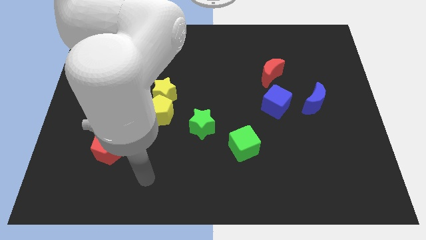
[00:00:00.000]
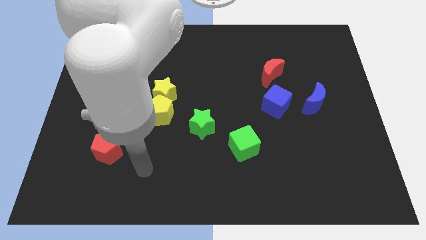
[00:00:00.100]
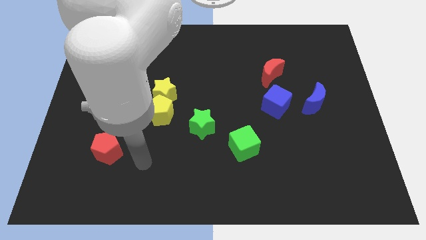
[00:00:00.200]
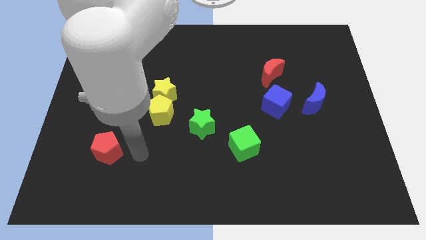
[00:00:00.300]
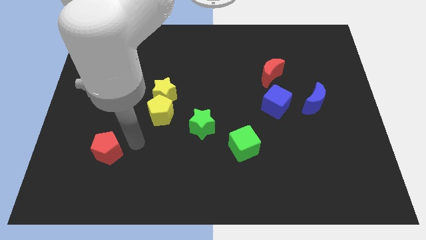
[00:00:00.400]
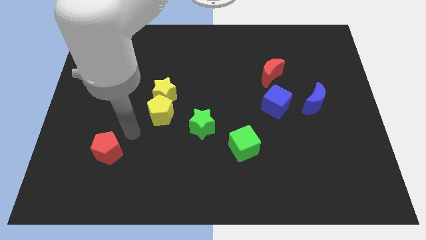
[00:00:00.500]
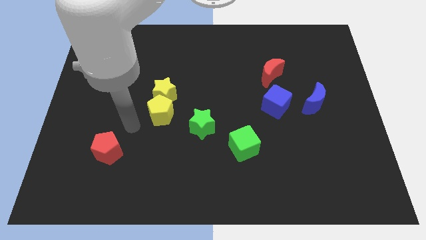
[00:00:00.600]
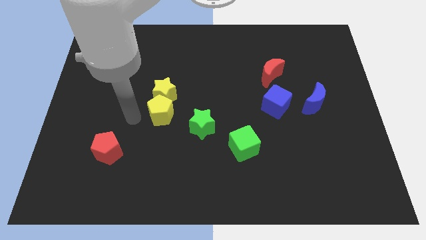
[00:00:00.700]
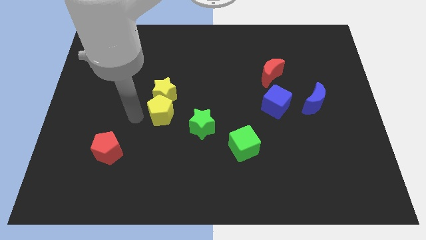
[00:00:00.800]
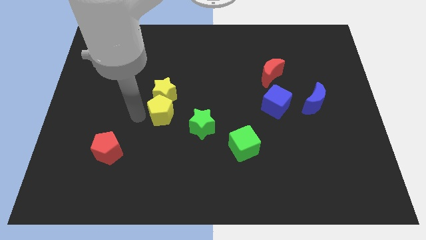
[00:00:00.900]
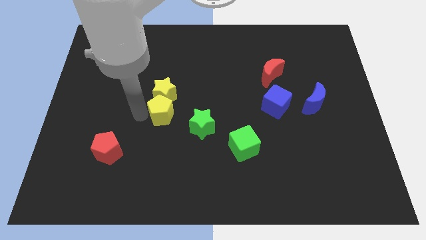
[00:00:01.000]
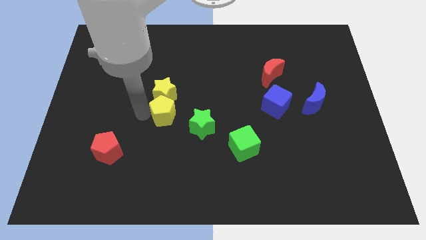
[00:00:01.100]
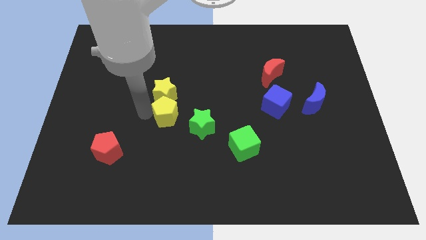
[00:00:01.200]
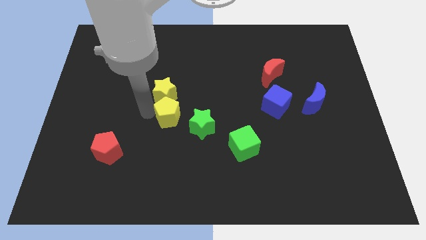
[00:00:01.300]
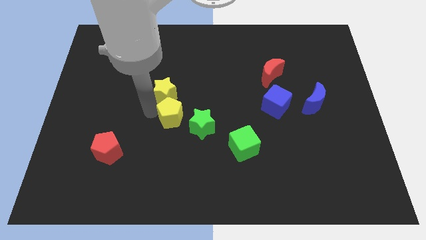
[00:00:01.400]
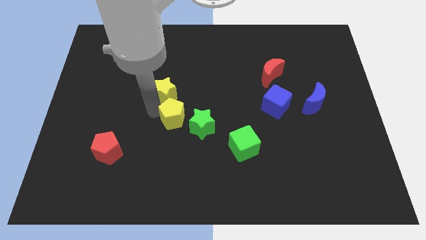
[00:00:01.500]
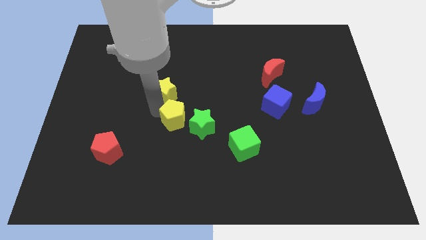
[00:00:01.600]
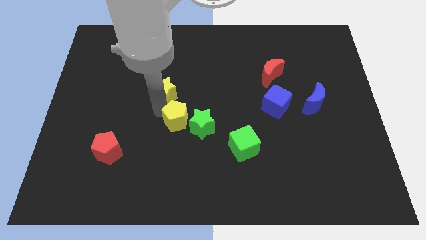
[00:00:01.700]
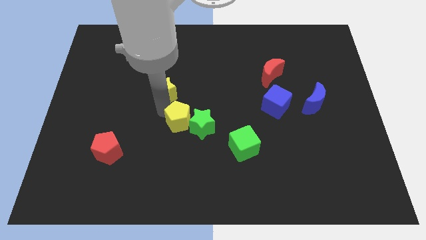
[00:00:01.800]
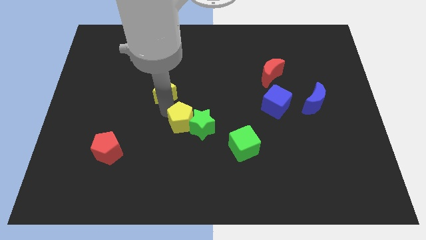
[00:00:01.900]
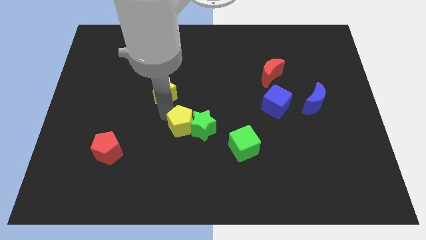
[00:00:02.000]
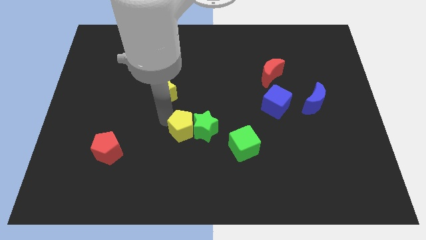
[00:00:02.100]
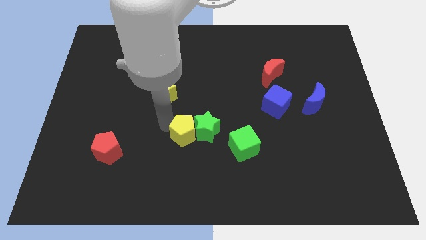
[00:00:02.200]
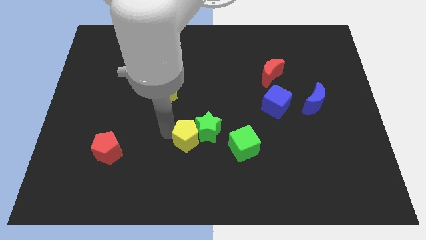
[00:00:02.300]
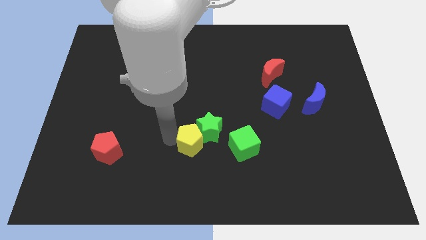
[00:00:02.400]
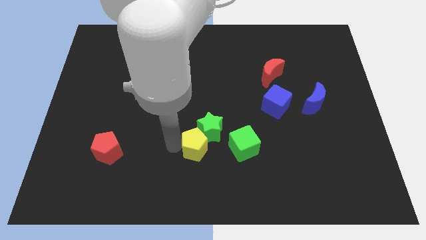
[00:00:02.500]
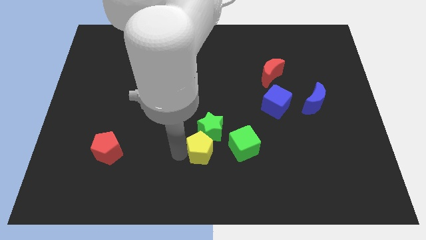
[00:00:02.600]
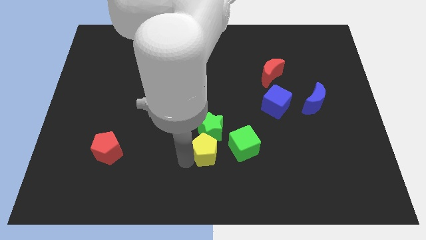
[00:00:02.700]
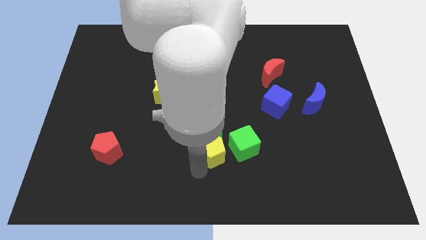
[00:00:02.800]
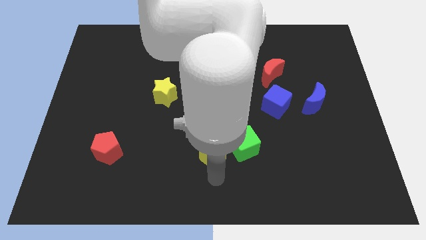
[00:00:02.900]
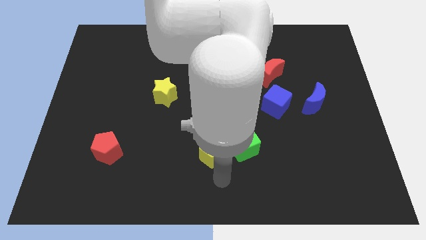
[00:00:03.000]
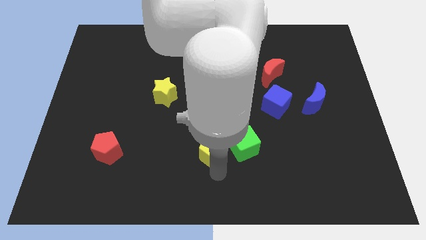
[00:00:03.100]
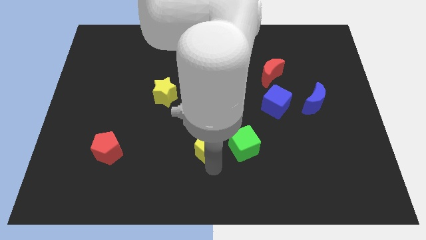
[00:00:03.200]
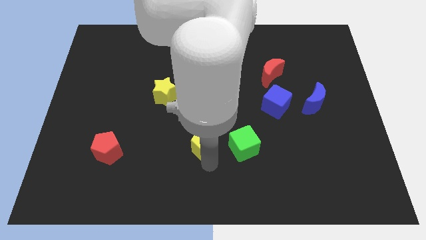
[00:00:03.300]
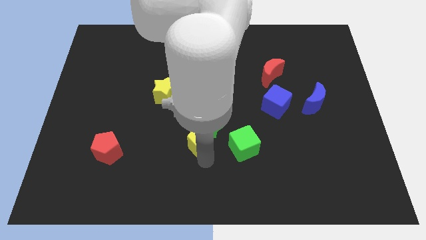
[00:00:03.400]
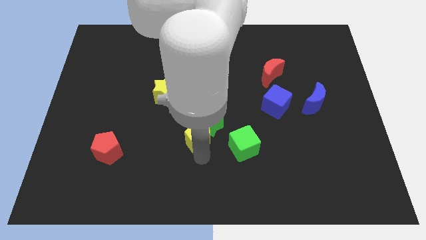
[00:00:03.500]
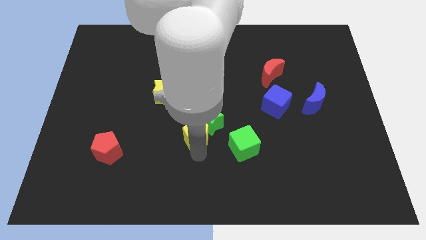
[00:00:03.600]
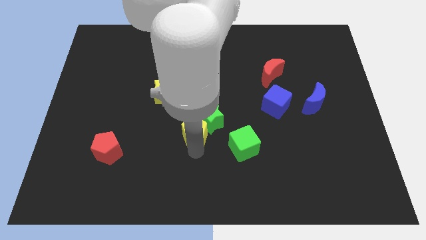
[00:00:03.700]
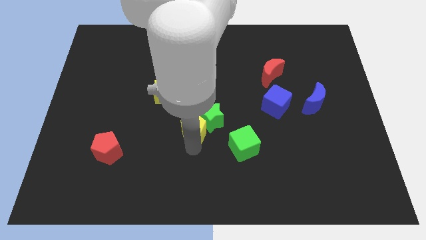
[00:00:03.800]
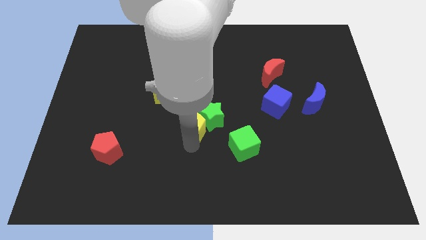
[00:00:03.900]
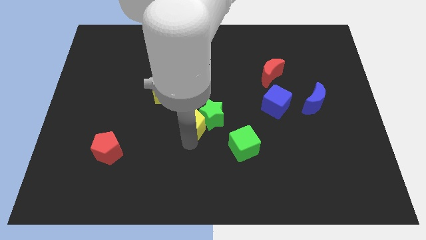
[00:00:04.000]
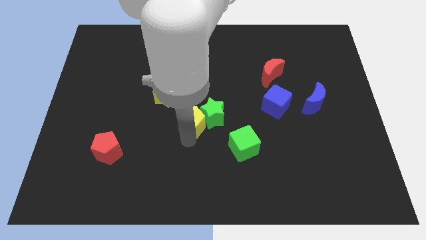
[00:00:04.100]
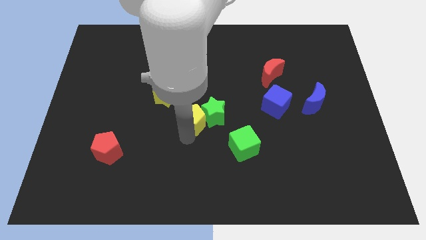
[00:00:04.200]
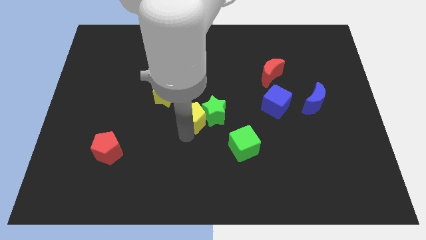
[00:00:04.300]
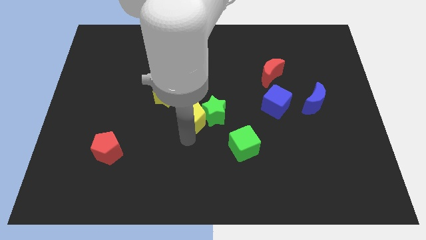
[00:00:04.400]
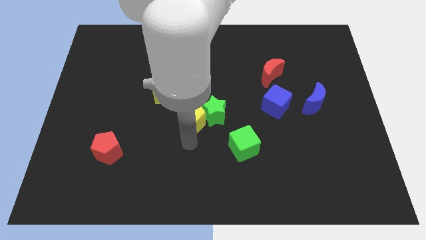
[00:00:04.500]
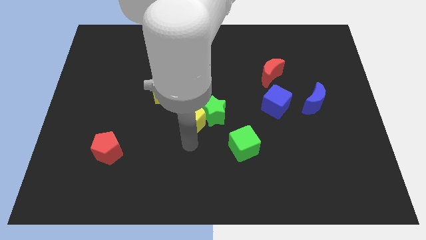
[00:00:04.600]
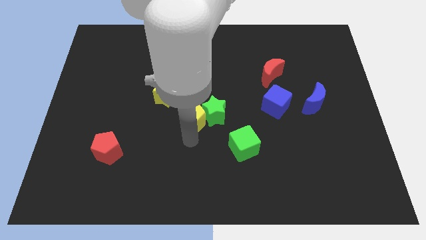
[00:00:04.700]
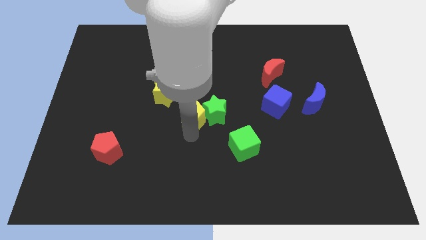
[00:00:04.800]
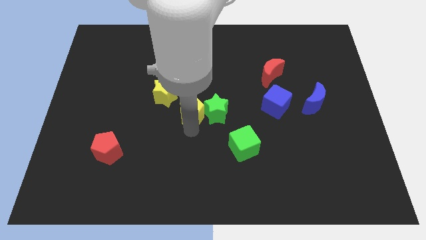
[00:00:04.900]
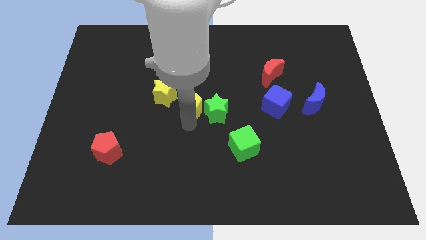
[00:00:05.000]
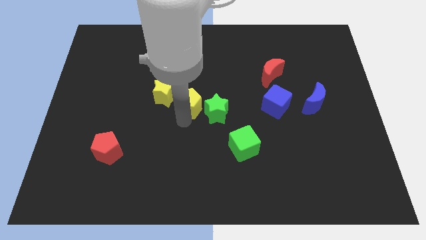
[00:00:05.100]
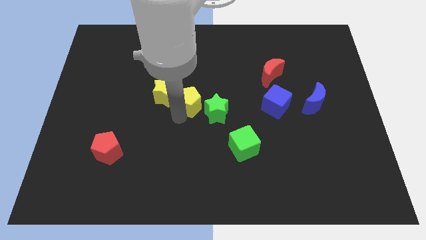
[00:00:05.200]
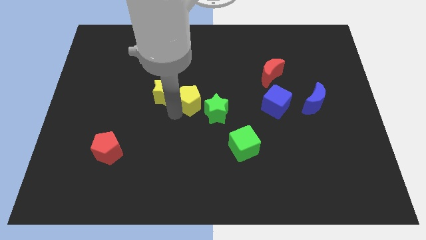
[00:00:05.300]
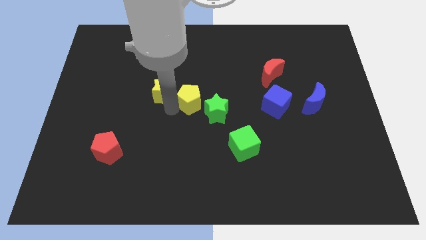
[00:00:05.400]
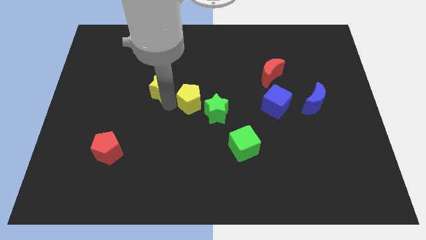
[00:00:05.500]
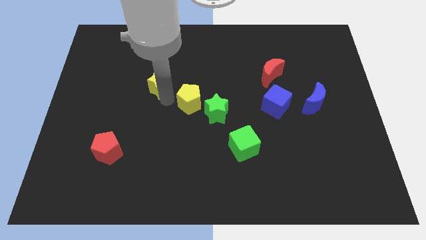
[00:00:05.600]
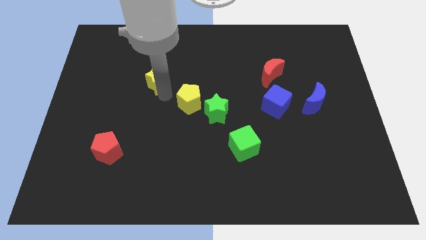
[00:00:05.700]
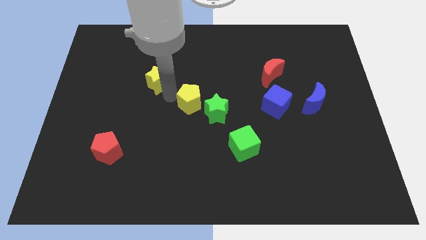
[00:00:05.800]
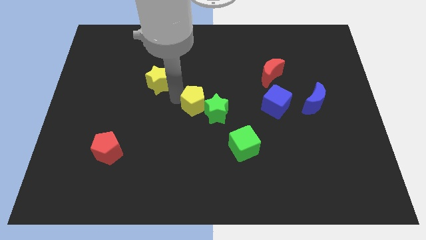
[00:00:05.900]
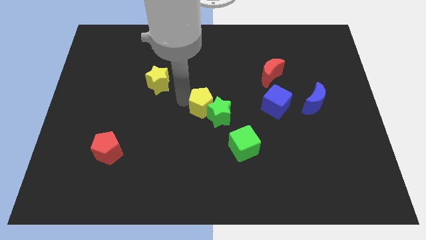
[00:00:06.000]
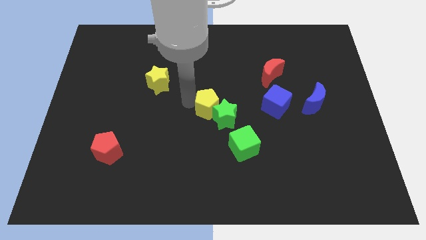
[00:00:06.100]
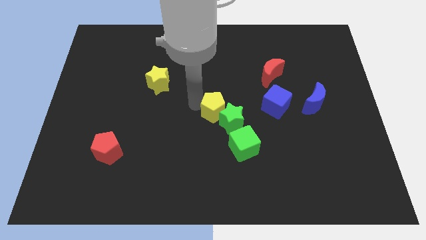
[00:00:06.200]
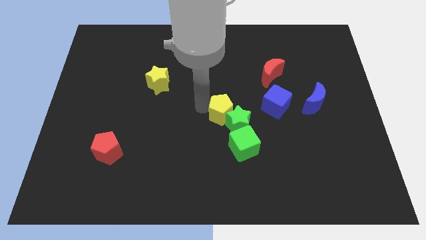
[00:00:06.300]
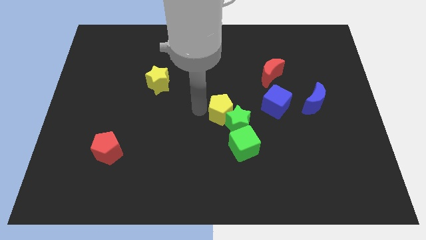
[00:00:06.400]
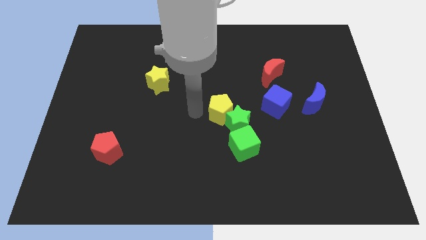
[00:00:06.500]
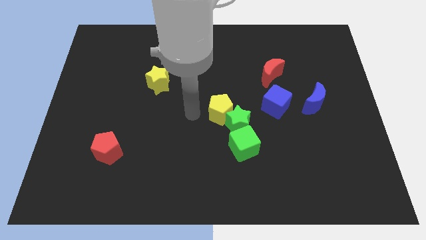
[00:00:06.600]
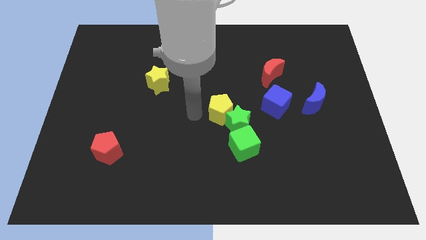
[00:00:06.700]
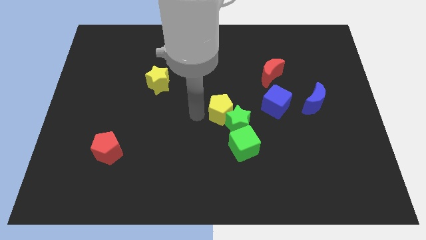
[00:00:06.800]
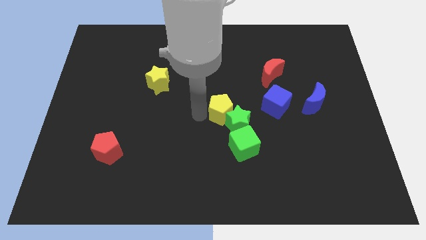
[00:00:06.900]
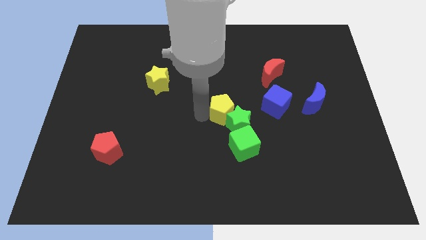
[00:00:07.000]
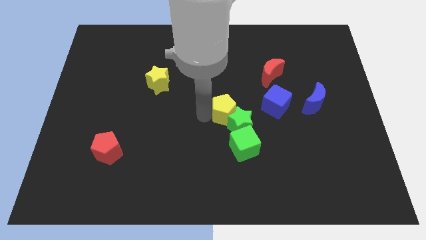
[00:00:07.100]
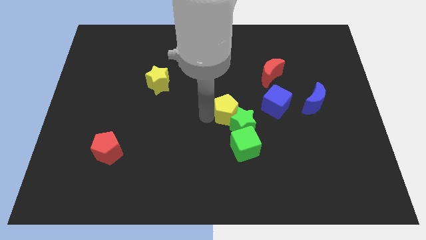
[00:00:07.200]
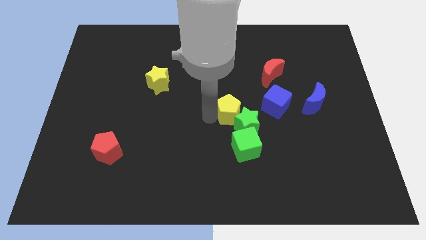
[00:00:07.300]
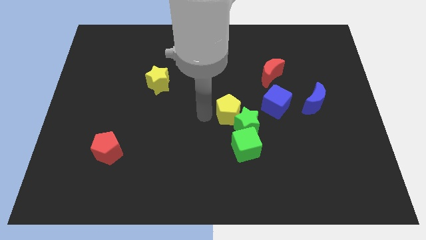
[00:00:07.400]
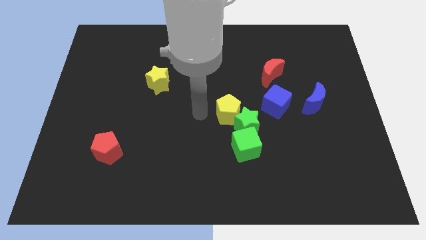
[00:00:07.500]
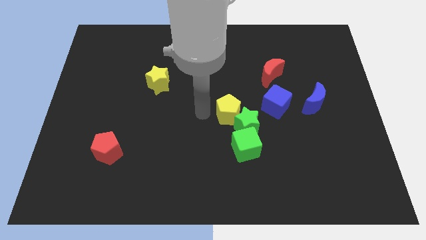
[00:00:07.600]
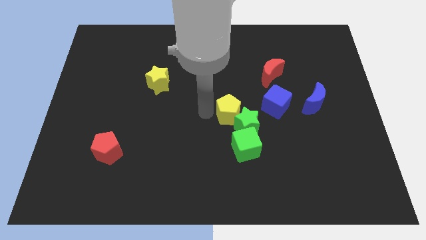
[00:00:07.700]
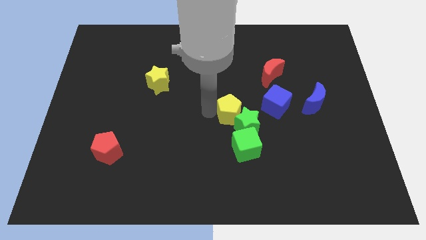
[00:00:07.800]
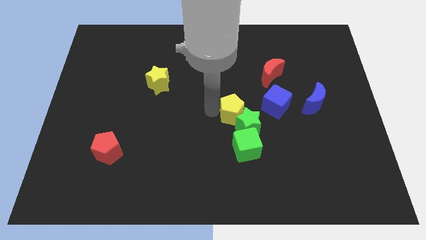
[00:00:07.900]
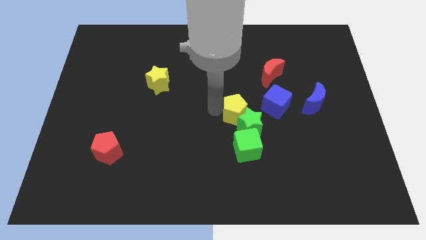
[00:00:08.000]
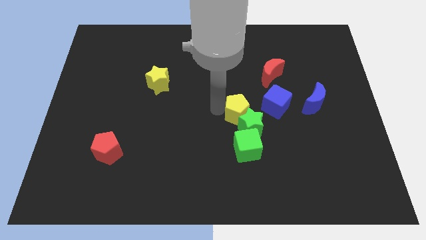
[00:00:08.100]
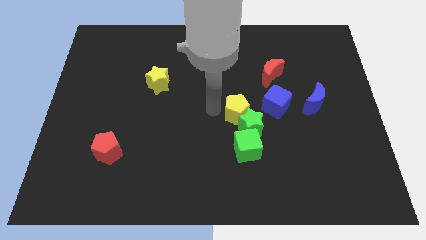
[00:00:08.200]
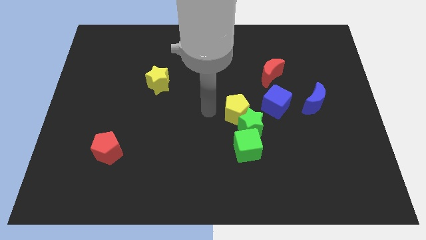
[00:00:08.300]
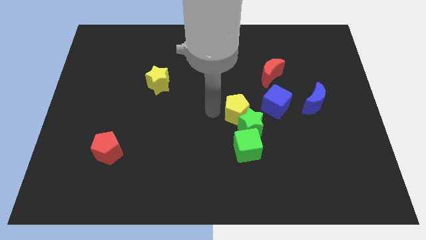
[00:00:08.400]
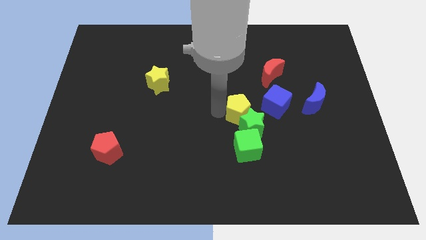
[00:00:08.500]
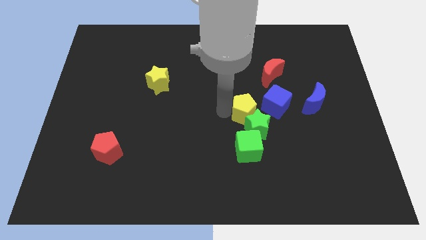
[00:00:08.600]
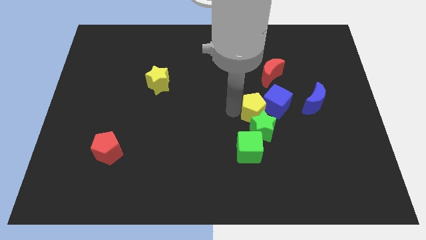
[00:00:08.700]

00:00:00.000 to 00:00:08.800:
slide the yellow pentagon right
